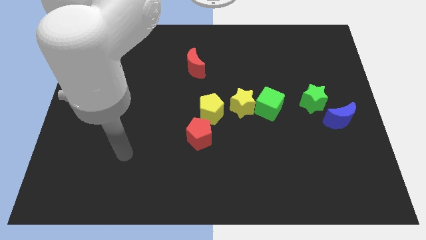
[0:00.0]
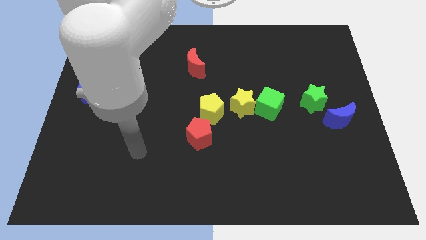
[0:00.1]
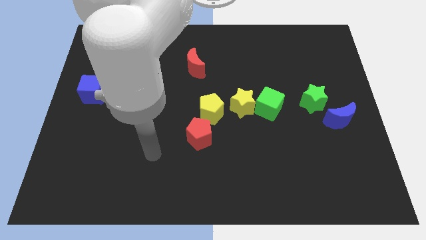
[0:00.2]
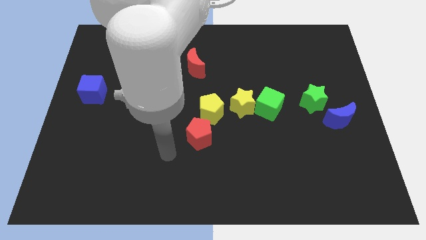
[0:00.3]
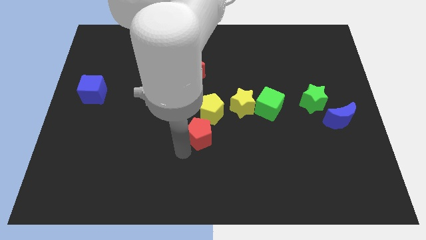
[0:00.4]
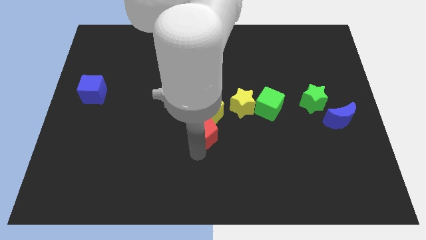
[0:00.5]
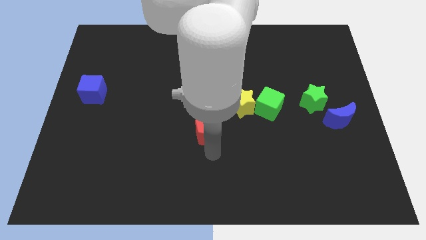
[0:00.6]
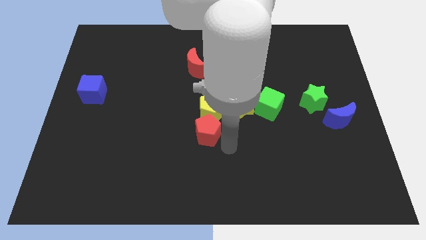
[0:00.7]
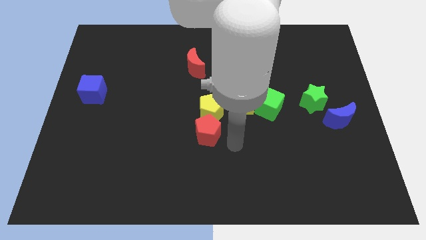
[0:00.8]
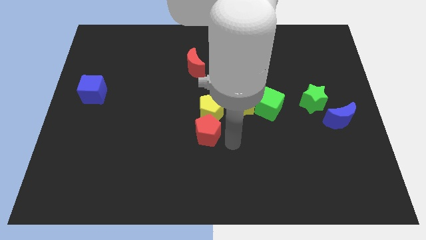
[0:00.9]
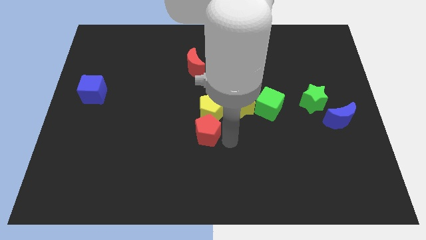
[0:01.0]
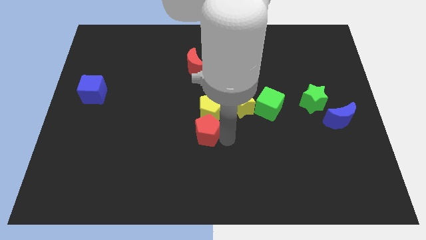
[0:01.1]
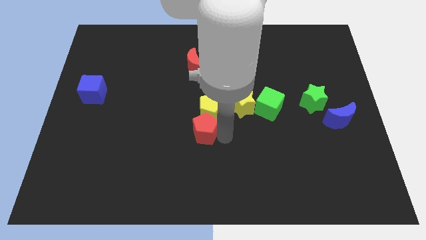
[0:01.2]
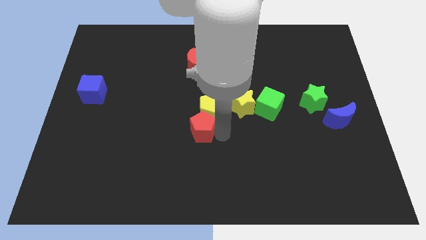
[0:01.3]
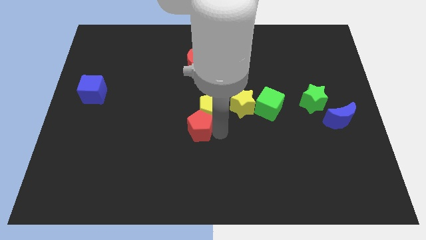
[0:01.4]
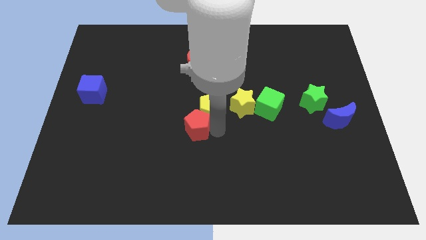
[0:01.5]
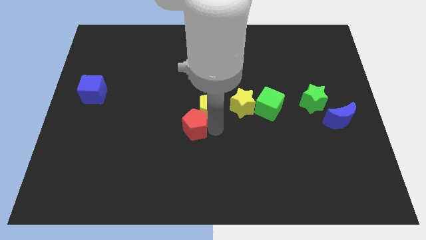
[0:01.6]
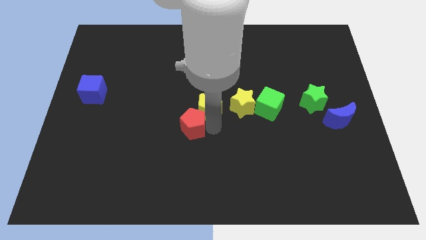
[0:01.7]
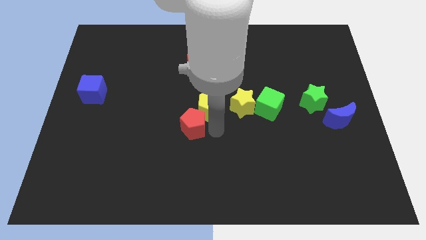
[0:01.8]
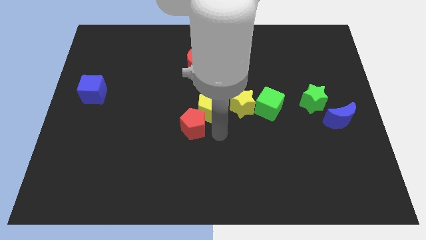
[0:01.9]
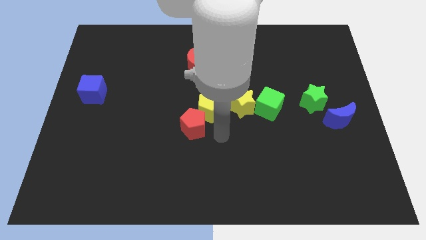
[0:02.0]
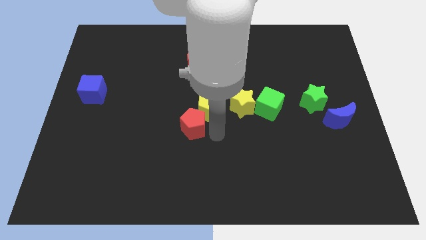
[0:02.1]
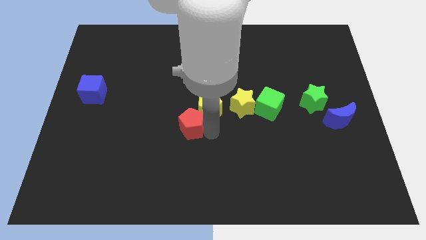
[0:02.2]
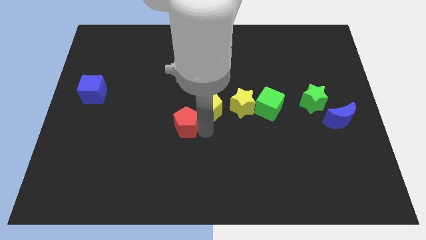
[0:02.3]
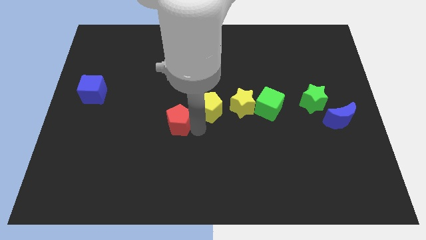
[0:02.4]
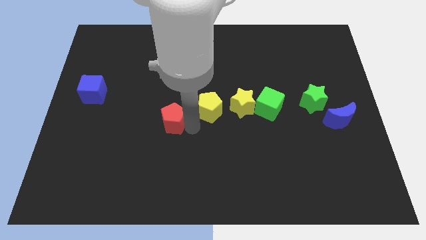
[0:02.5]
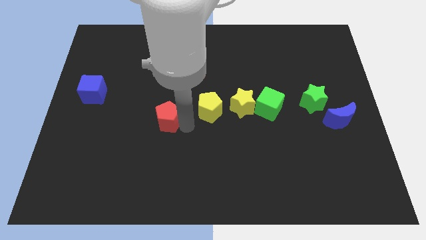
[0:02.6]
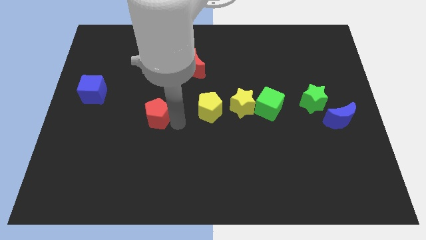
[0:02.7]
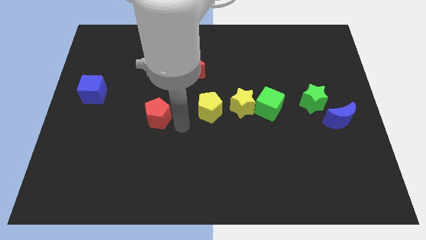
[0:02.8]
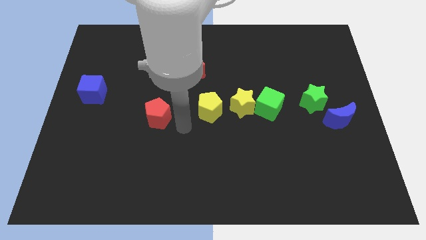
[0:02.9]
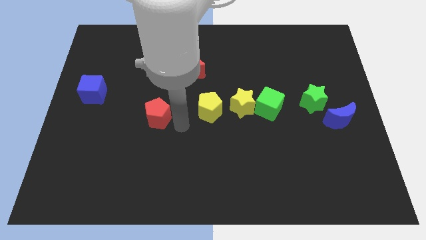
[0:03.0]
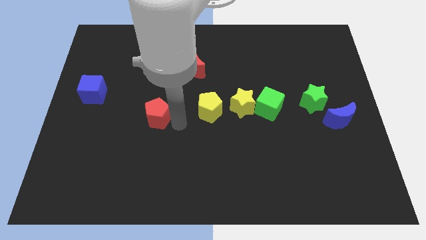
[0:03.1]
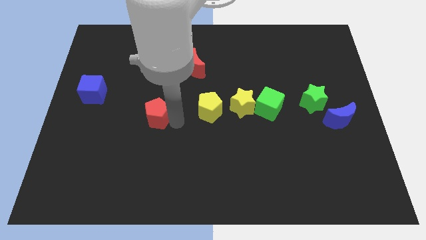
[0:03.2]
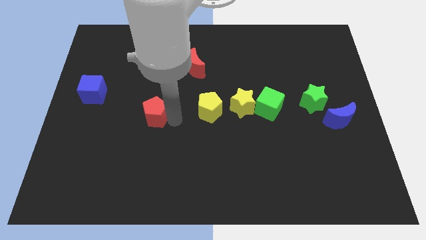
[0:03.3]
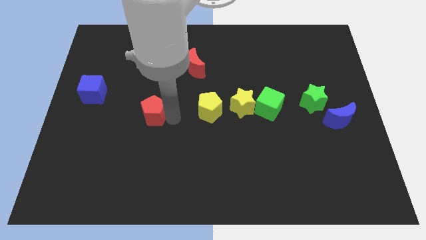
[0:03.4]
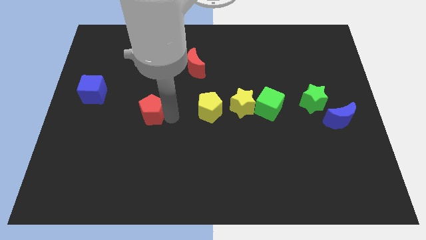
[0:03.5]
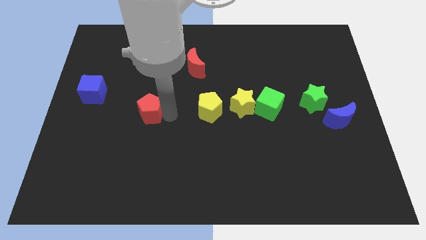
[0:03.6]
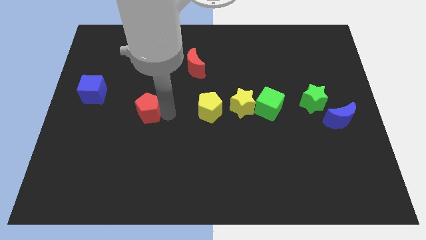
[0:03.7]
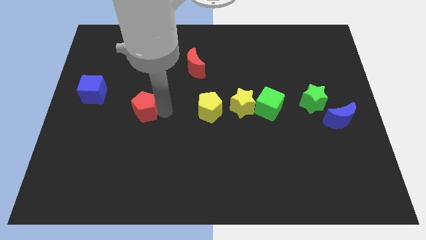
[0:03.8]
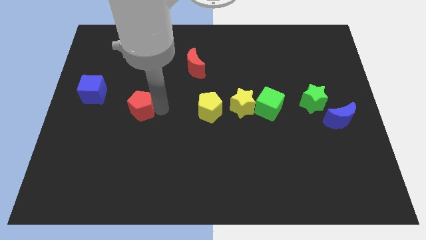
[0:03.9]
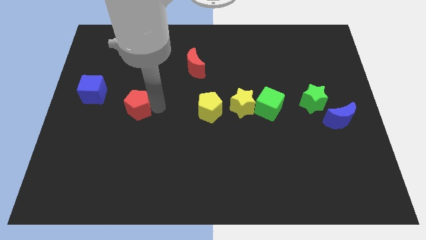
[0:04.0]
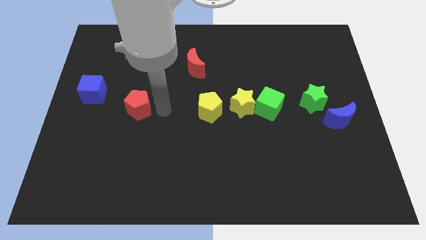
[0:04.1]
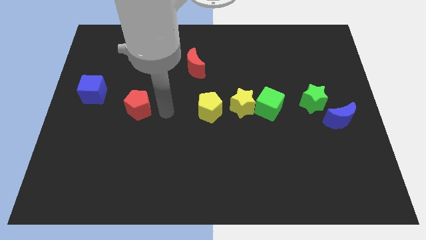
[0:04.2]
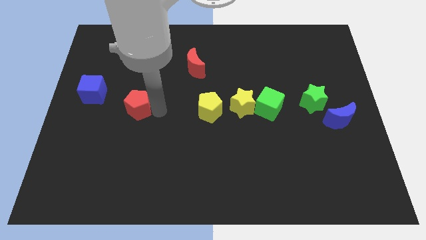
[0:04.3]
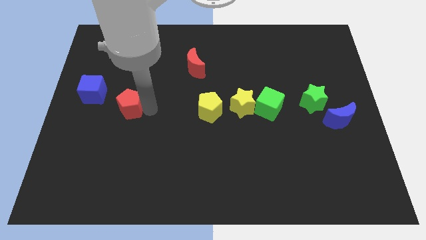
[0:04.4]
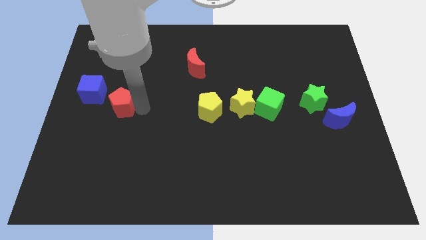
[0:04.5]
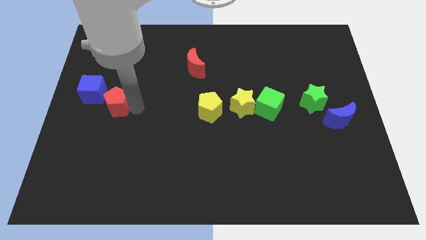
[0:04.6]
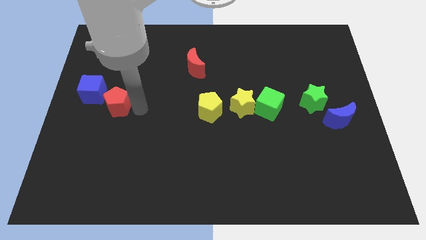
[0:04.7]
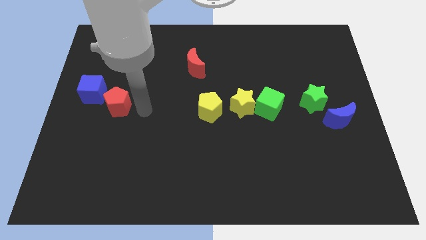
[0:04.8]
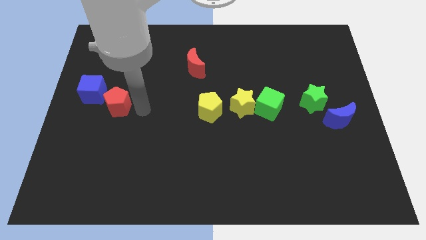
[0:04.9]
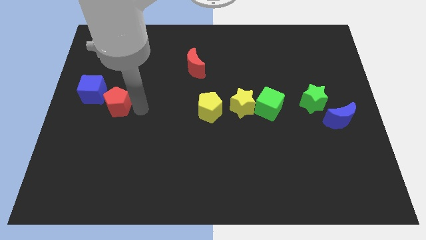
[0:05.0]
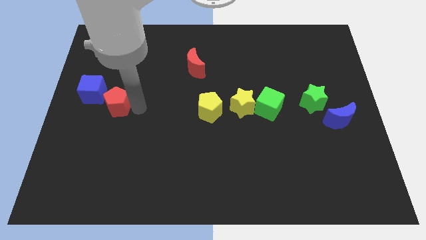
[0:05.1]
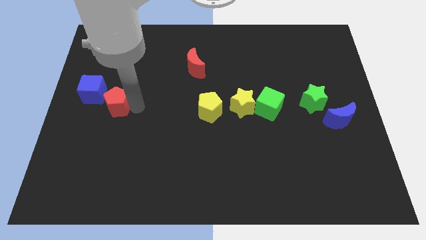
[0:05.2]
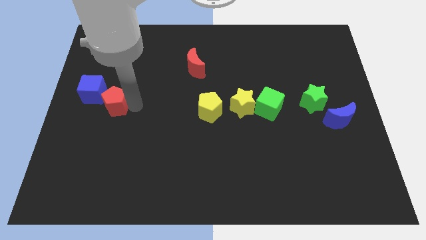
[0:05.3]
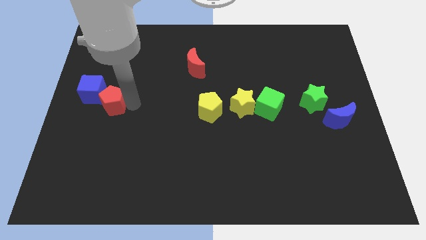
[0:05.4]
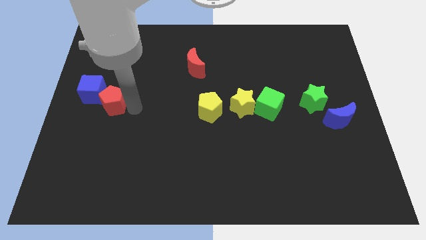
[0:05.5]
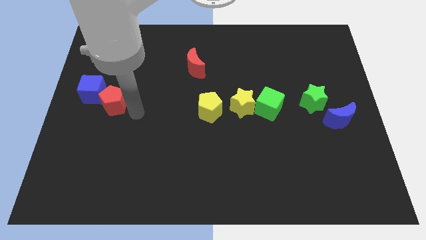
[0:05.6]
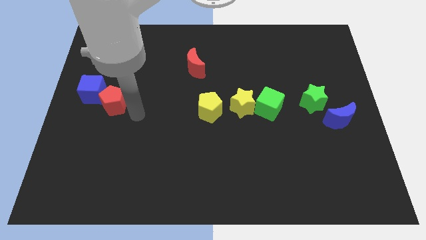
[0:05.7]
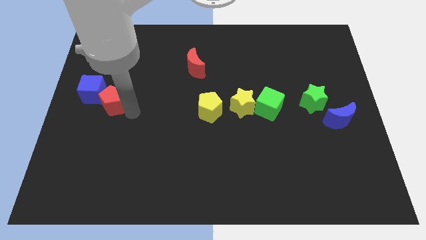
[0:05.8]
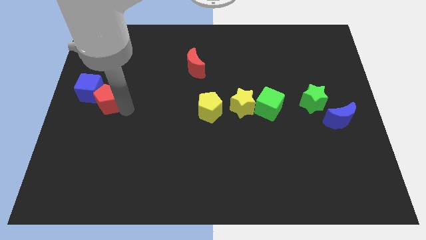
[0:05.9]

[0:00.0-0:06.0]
slide the red pentagon towards the blue cube

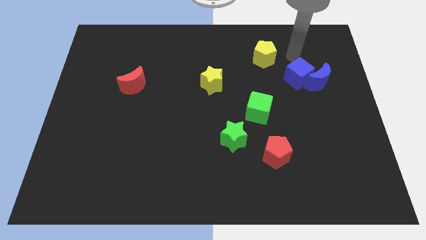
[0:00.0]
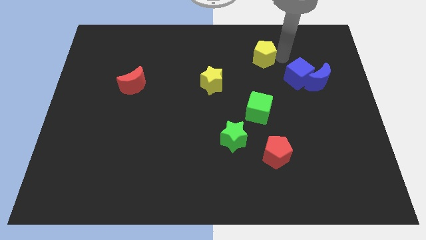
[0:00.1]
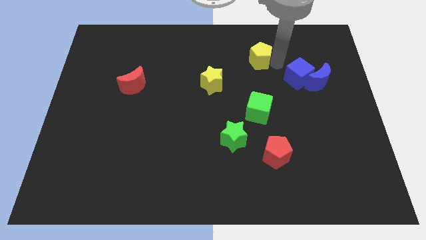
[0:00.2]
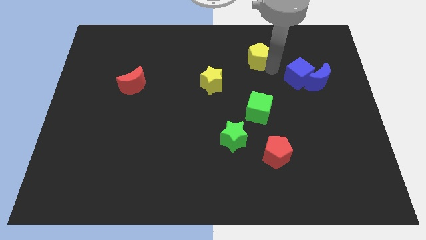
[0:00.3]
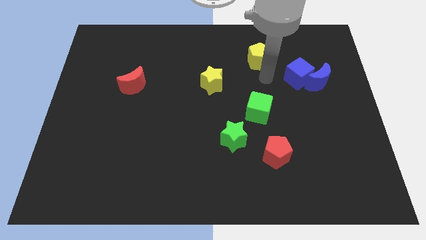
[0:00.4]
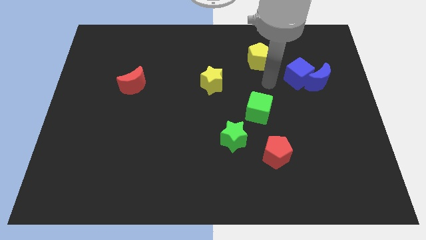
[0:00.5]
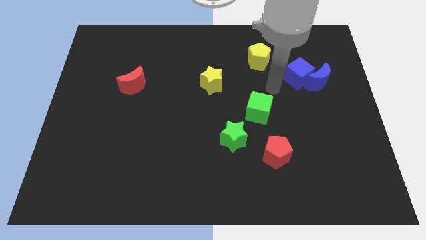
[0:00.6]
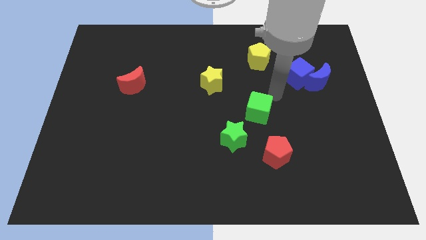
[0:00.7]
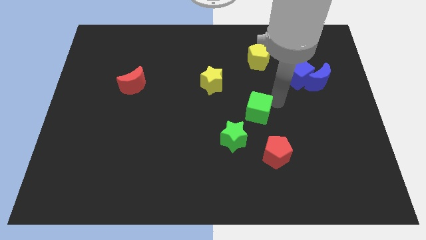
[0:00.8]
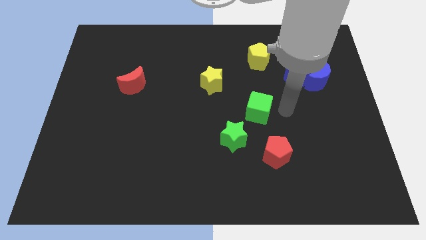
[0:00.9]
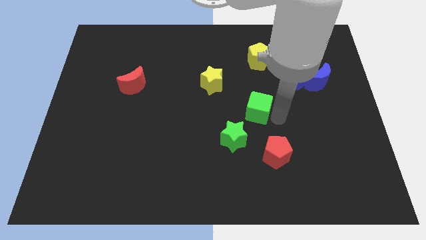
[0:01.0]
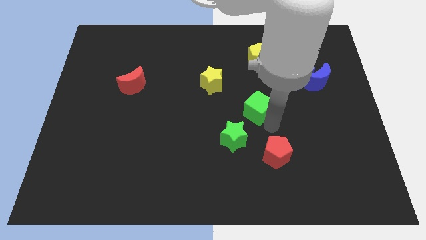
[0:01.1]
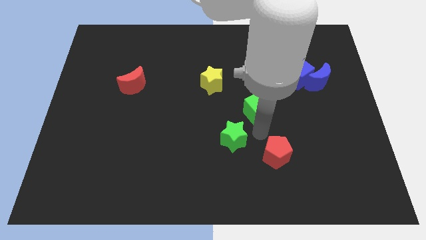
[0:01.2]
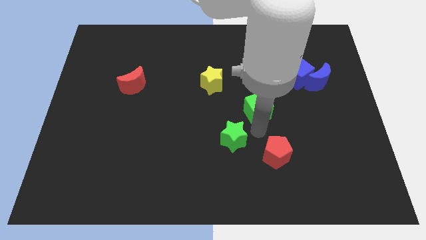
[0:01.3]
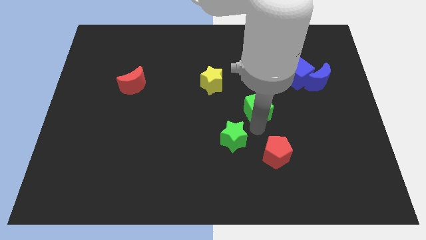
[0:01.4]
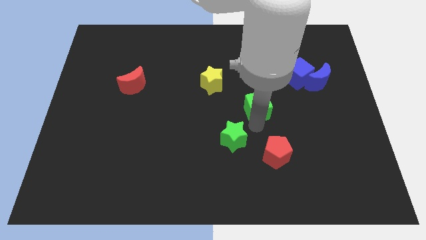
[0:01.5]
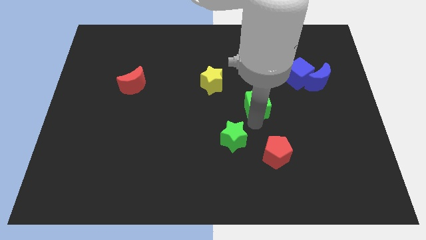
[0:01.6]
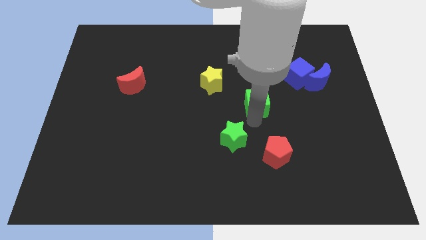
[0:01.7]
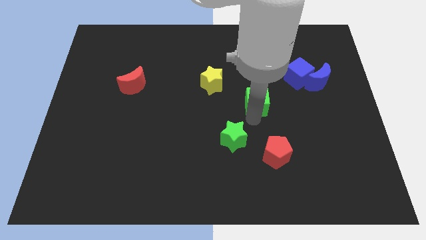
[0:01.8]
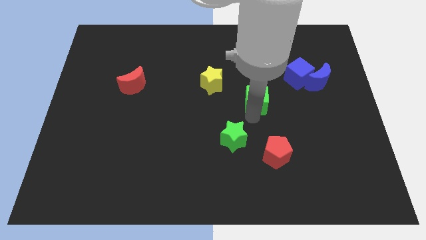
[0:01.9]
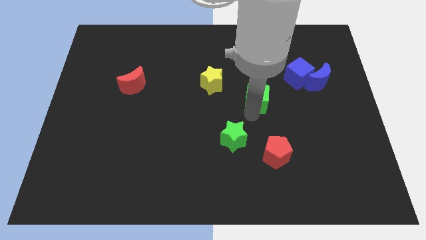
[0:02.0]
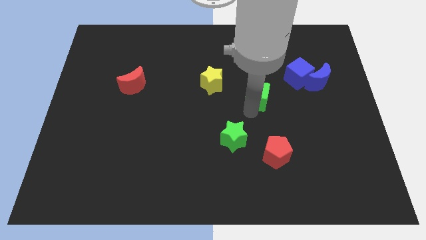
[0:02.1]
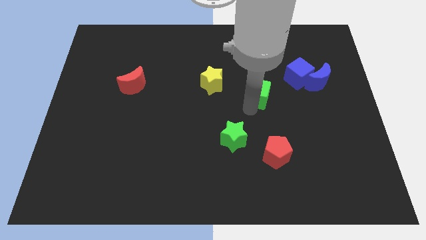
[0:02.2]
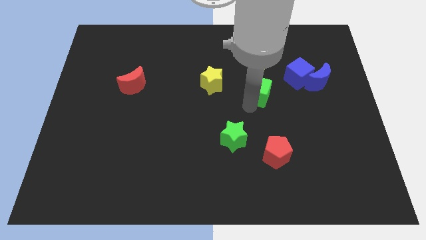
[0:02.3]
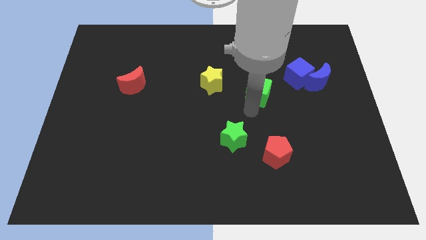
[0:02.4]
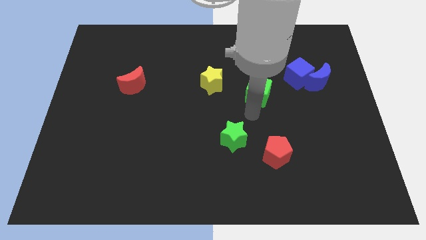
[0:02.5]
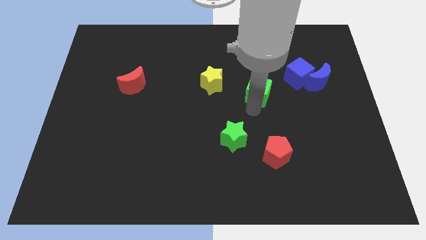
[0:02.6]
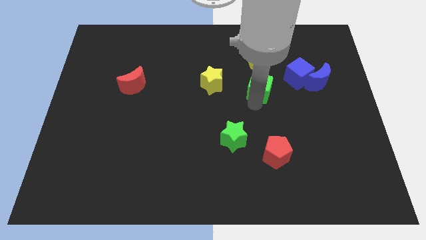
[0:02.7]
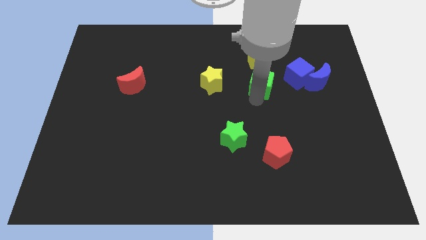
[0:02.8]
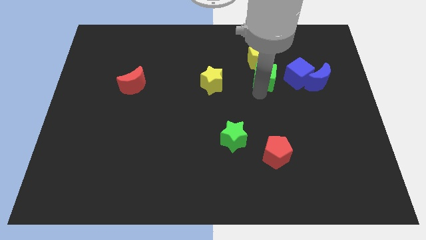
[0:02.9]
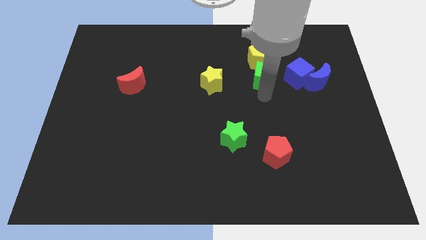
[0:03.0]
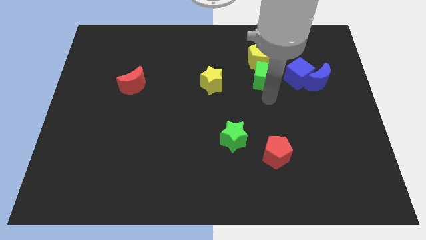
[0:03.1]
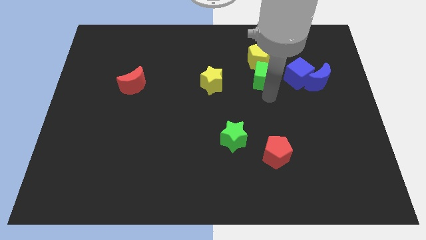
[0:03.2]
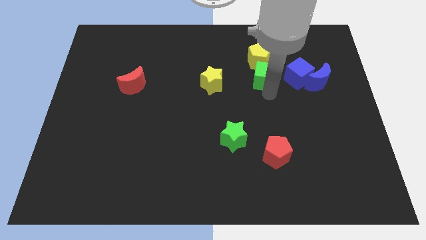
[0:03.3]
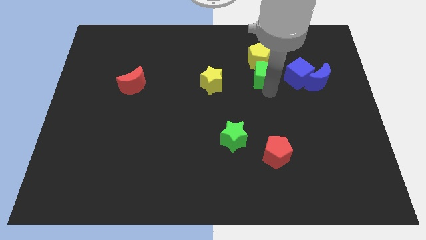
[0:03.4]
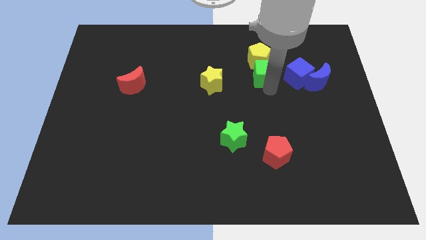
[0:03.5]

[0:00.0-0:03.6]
move the green cube to the yellow pentagon
